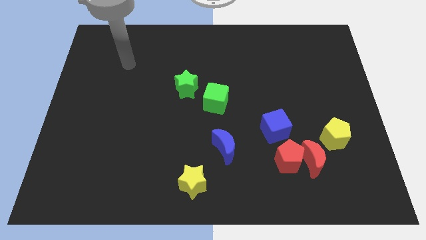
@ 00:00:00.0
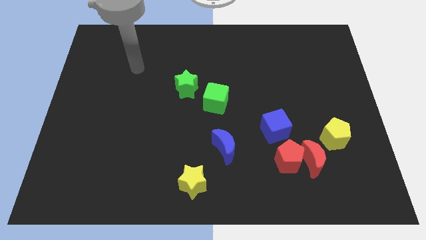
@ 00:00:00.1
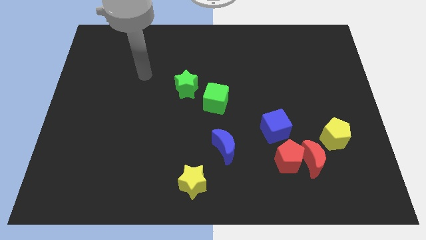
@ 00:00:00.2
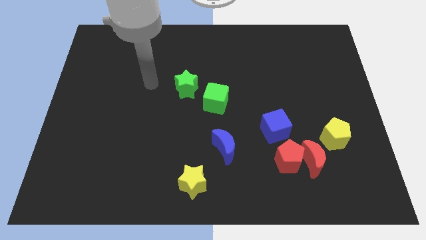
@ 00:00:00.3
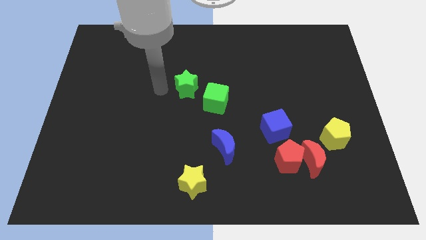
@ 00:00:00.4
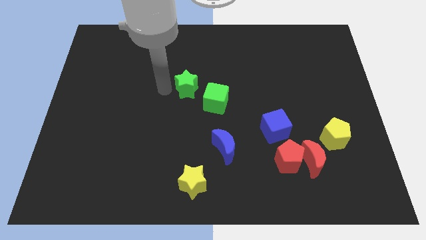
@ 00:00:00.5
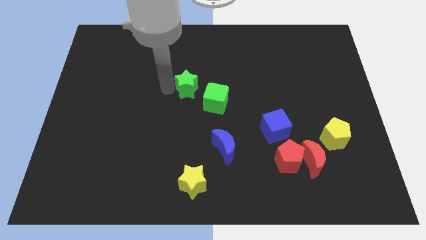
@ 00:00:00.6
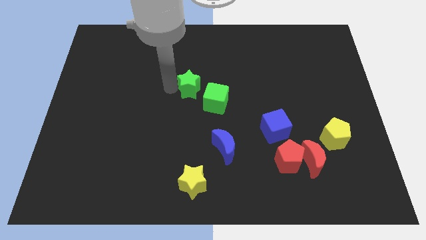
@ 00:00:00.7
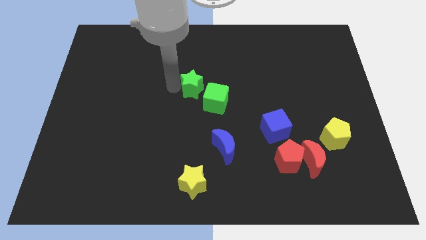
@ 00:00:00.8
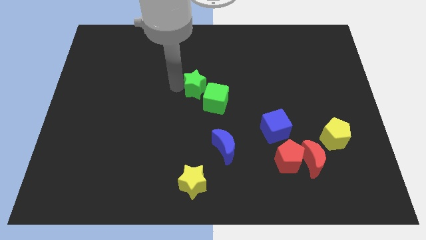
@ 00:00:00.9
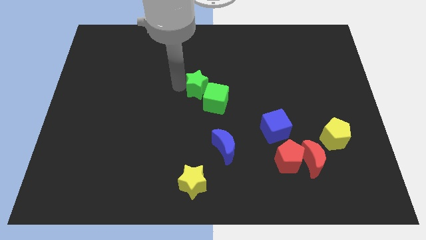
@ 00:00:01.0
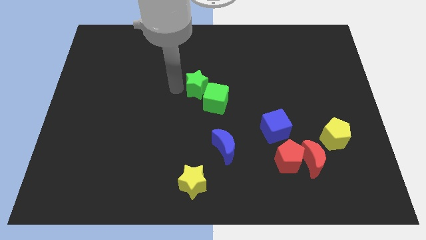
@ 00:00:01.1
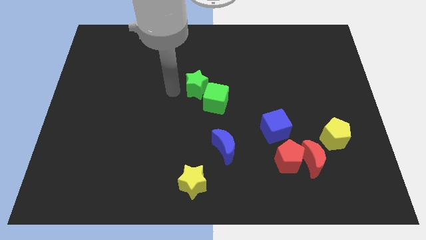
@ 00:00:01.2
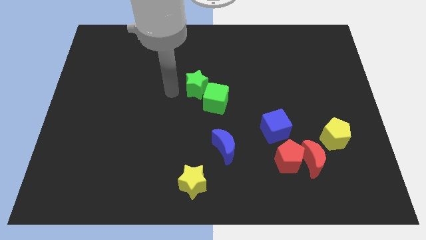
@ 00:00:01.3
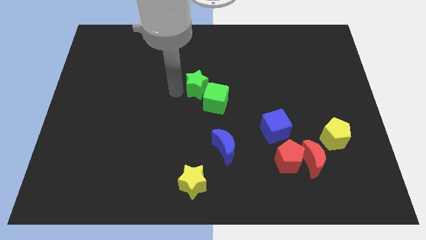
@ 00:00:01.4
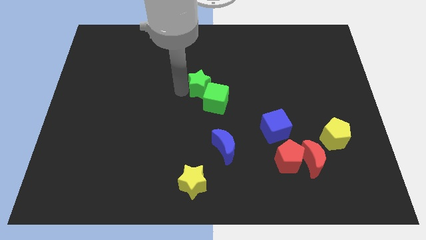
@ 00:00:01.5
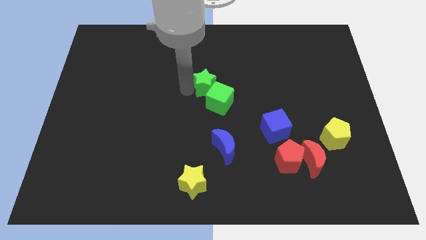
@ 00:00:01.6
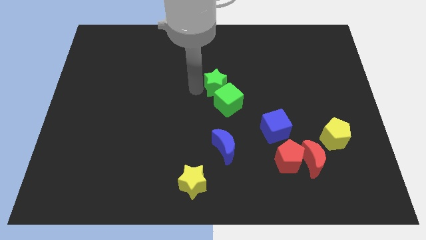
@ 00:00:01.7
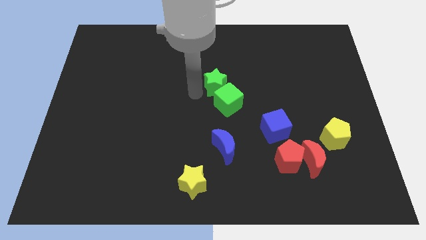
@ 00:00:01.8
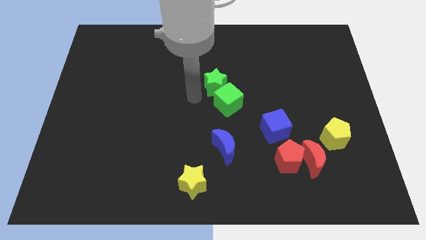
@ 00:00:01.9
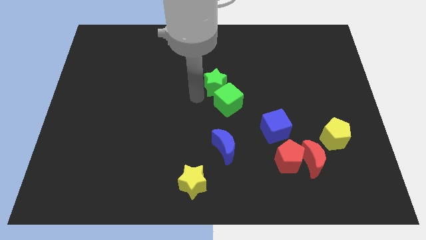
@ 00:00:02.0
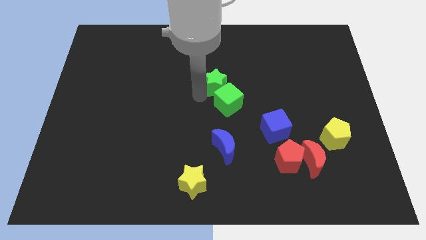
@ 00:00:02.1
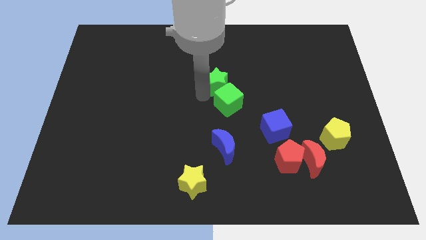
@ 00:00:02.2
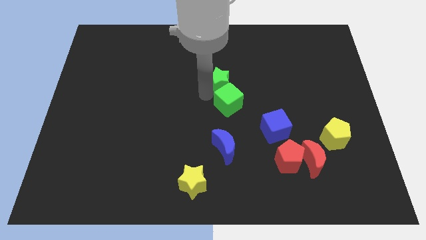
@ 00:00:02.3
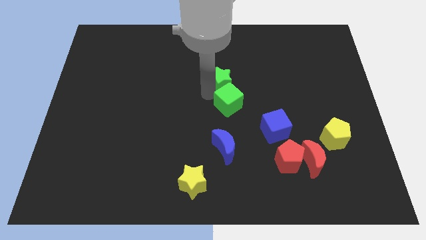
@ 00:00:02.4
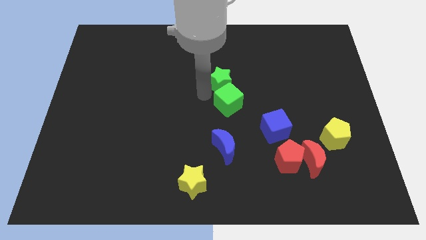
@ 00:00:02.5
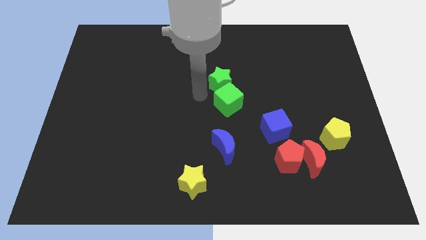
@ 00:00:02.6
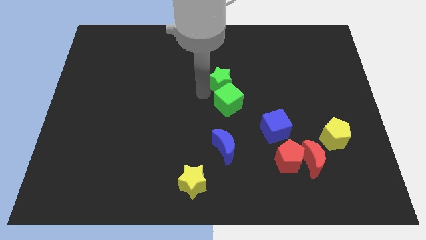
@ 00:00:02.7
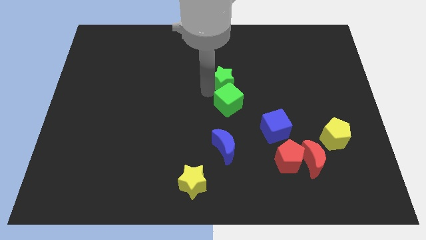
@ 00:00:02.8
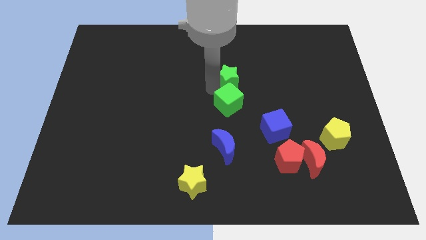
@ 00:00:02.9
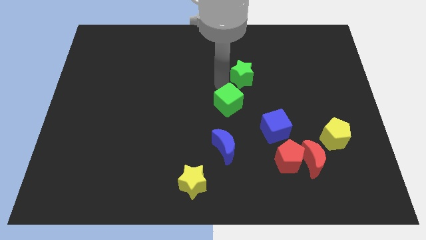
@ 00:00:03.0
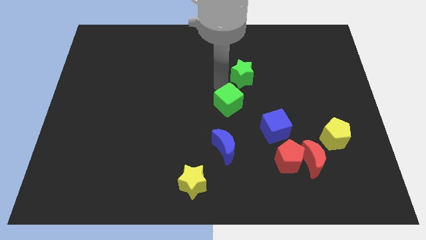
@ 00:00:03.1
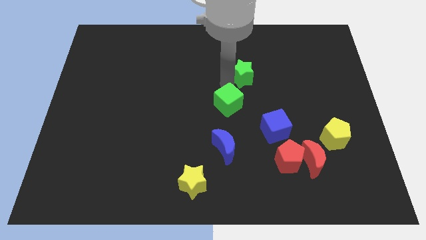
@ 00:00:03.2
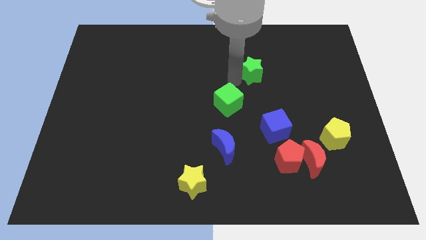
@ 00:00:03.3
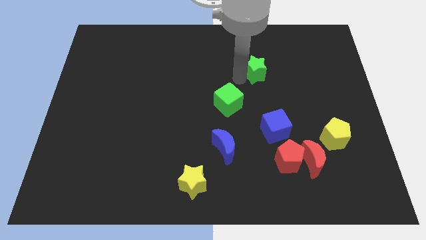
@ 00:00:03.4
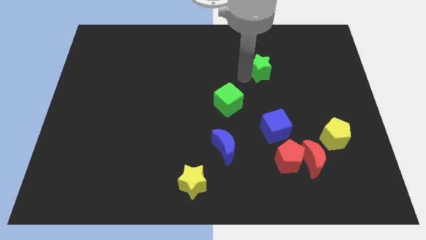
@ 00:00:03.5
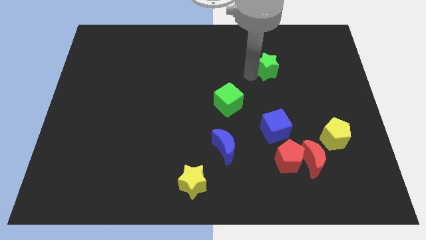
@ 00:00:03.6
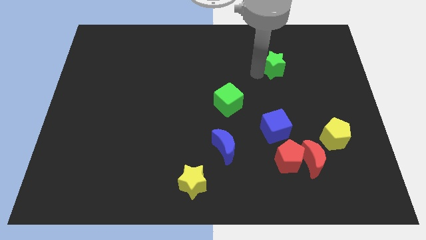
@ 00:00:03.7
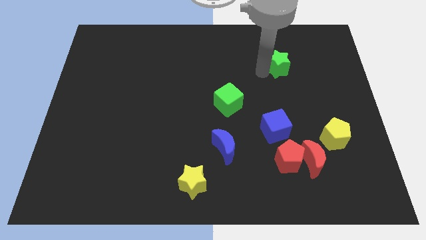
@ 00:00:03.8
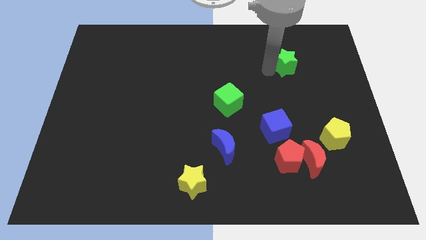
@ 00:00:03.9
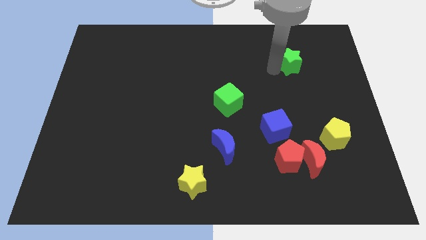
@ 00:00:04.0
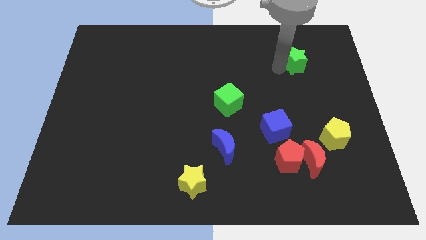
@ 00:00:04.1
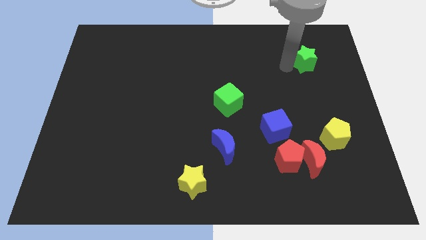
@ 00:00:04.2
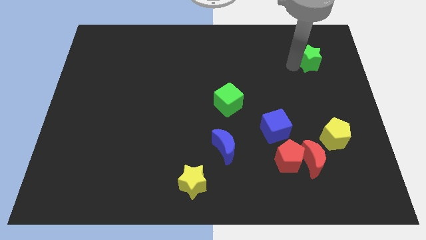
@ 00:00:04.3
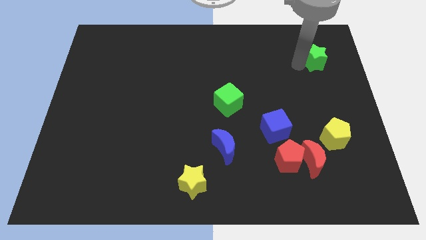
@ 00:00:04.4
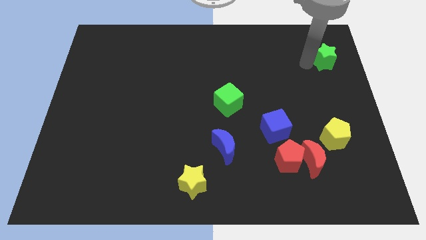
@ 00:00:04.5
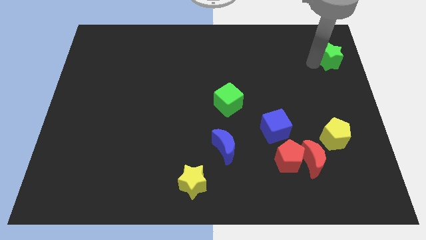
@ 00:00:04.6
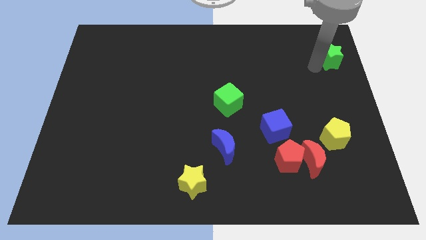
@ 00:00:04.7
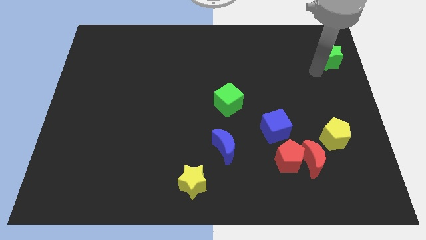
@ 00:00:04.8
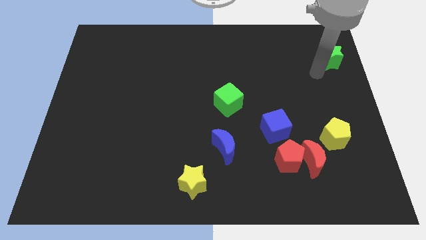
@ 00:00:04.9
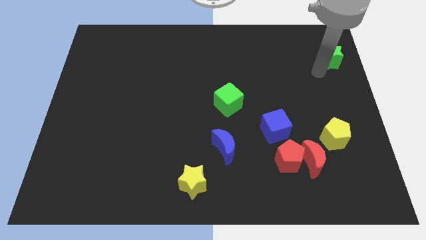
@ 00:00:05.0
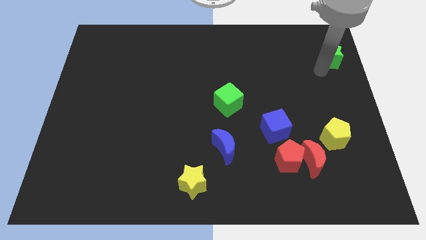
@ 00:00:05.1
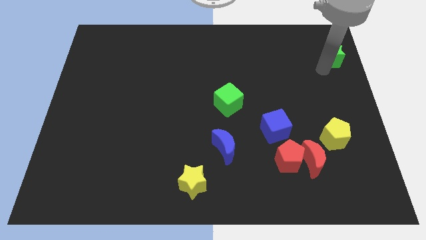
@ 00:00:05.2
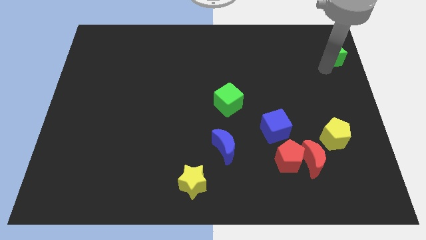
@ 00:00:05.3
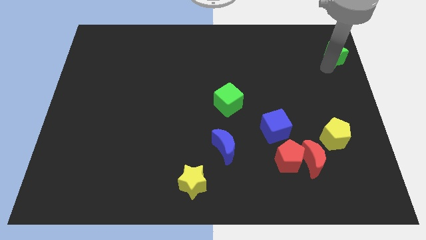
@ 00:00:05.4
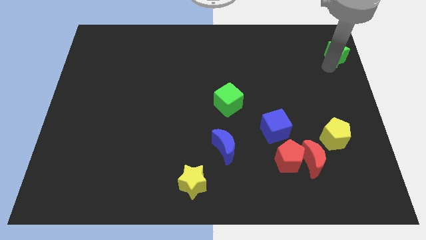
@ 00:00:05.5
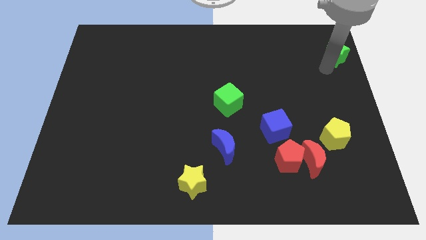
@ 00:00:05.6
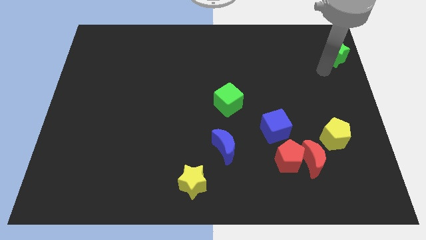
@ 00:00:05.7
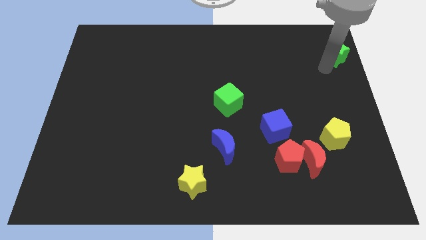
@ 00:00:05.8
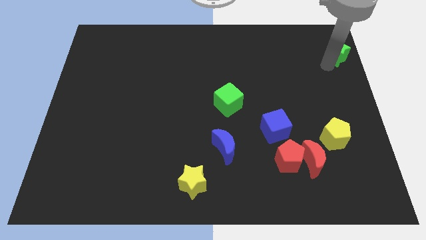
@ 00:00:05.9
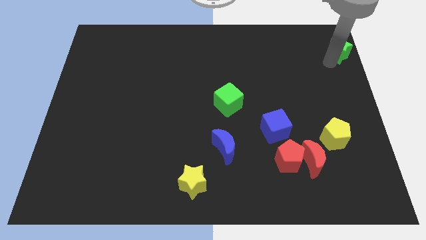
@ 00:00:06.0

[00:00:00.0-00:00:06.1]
move the green star to the top right

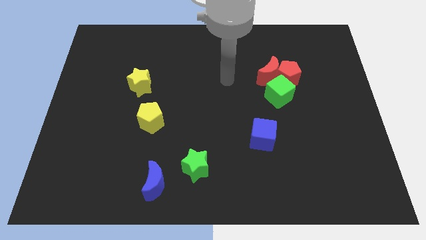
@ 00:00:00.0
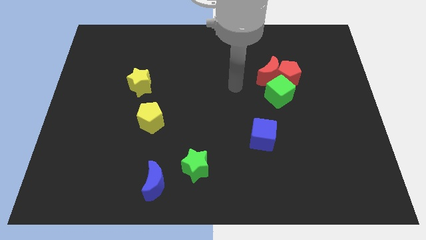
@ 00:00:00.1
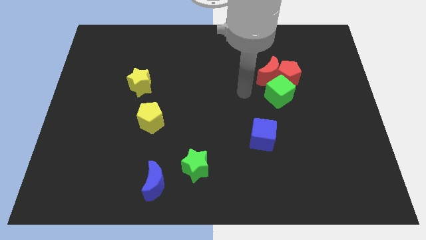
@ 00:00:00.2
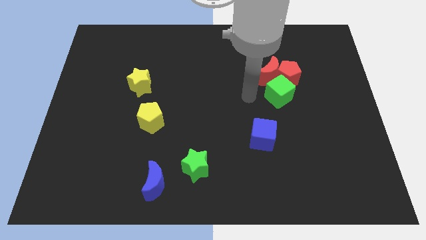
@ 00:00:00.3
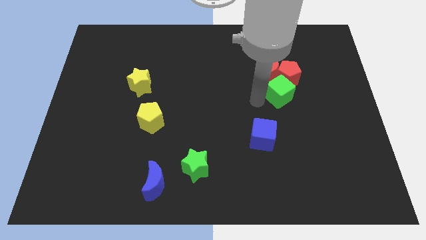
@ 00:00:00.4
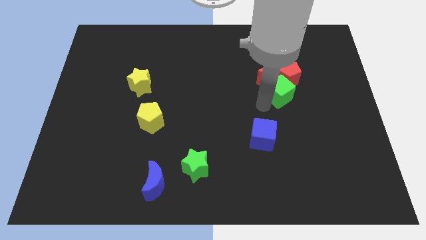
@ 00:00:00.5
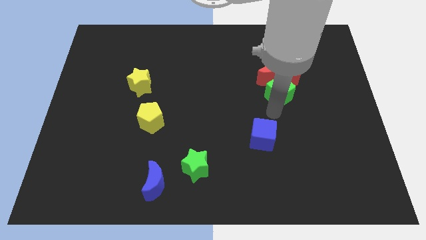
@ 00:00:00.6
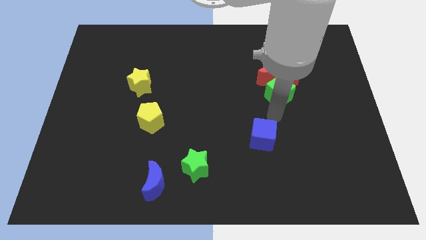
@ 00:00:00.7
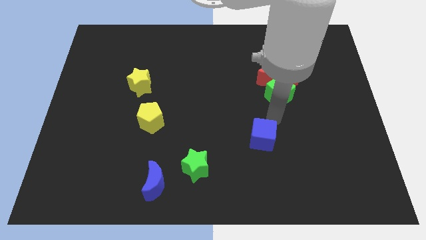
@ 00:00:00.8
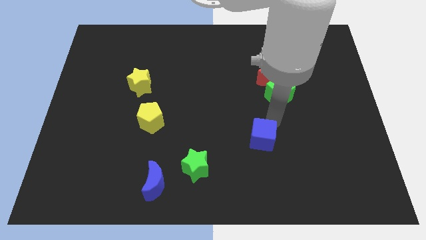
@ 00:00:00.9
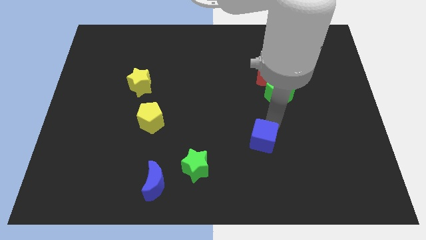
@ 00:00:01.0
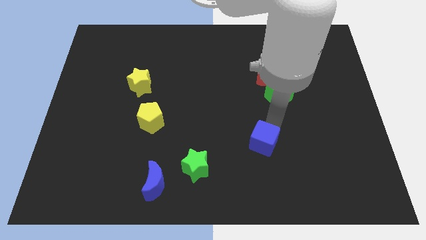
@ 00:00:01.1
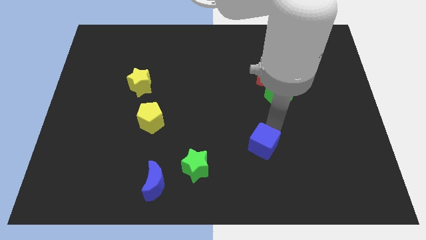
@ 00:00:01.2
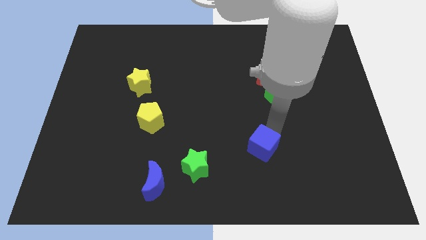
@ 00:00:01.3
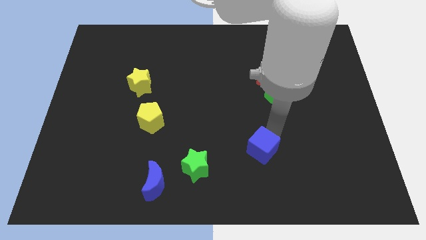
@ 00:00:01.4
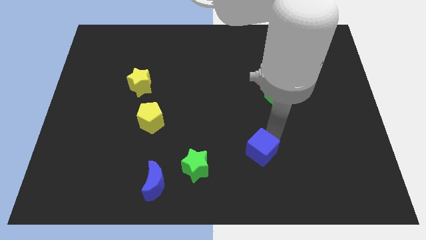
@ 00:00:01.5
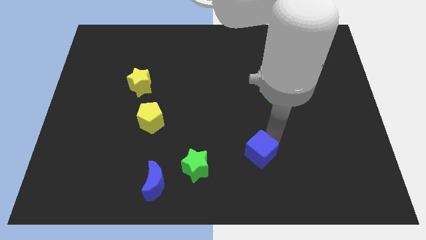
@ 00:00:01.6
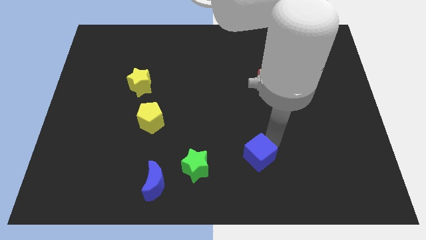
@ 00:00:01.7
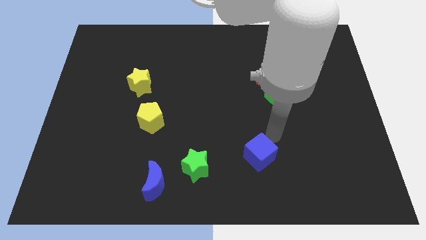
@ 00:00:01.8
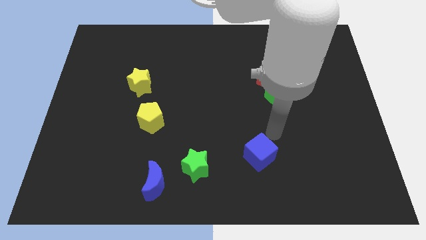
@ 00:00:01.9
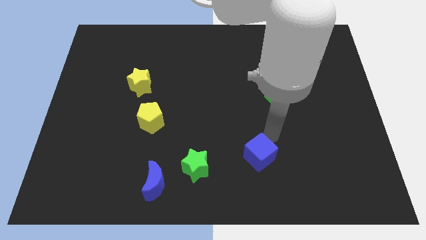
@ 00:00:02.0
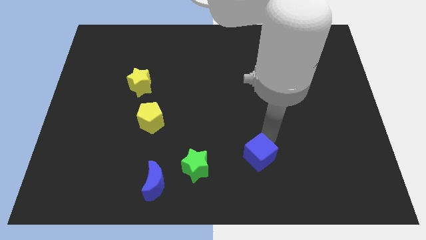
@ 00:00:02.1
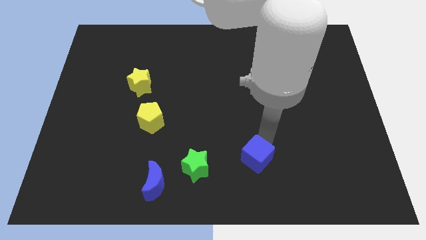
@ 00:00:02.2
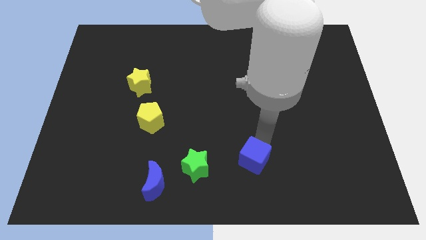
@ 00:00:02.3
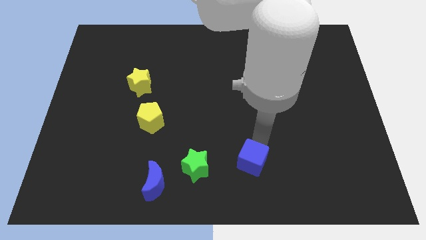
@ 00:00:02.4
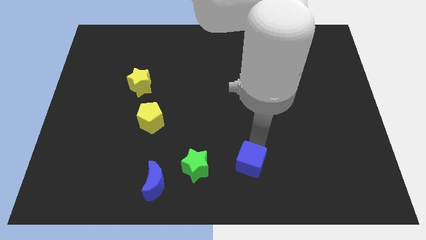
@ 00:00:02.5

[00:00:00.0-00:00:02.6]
put the blue cube to the bottom
